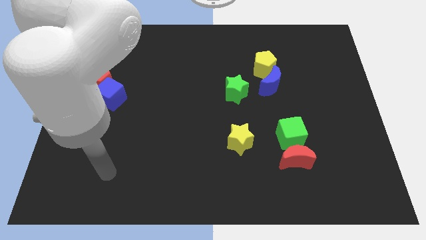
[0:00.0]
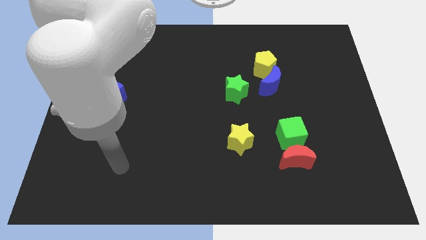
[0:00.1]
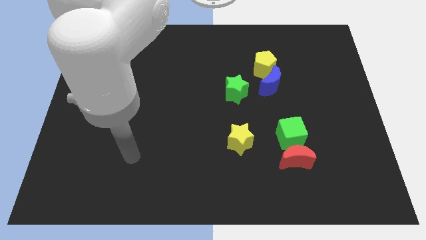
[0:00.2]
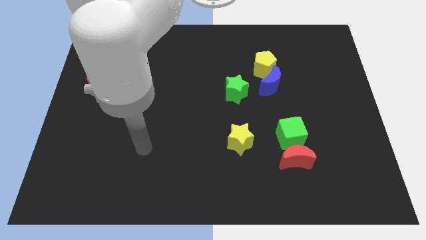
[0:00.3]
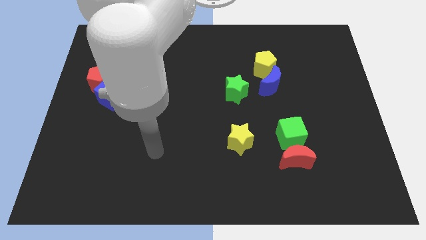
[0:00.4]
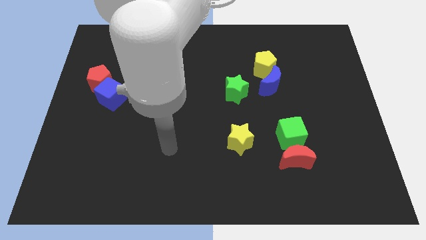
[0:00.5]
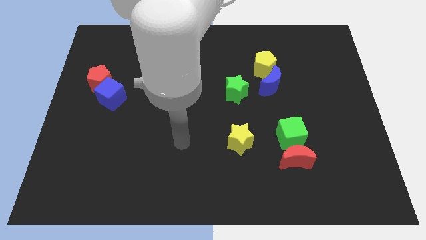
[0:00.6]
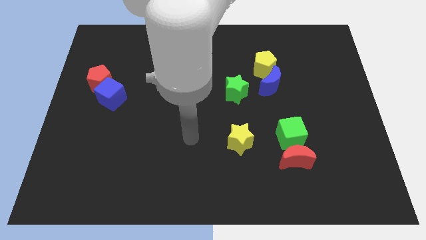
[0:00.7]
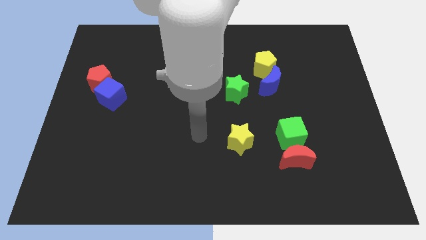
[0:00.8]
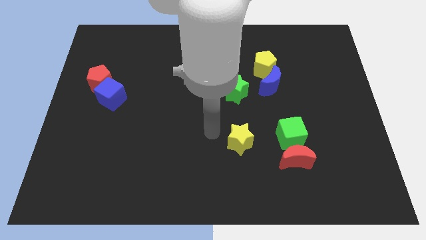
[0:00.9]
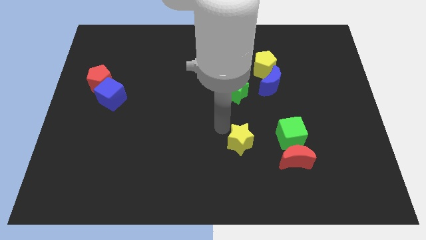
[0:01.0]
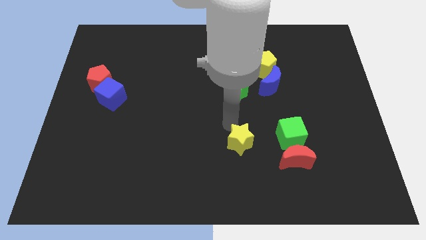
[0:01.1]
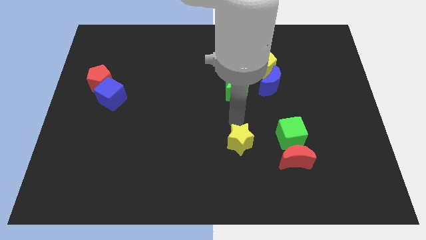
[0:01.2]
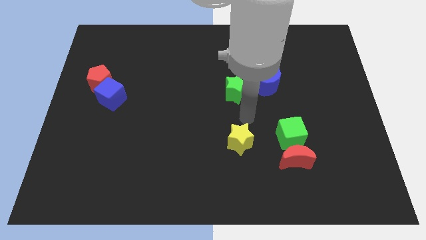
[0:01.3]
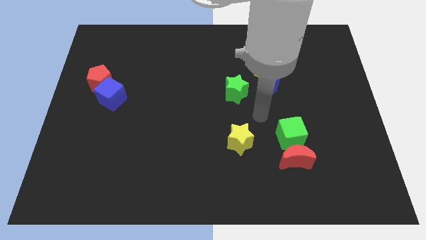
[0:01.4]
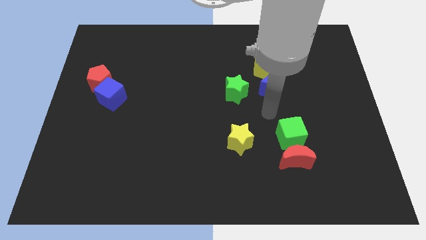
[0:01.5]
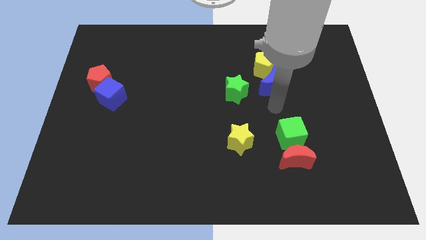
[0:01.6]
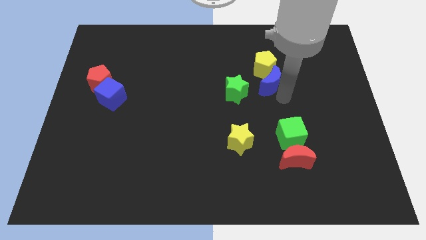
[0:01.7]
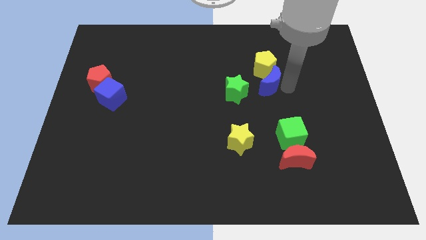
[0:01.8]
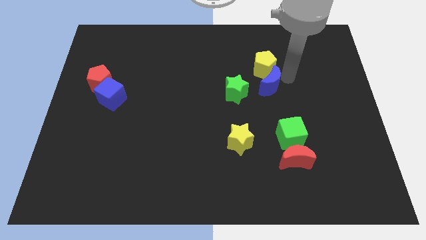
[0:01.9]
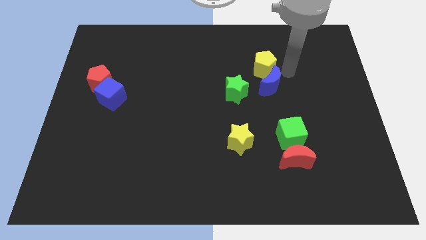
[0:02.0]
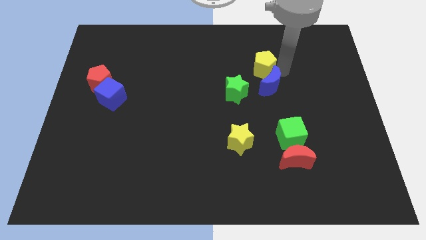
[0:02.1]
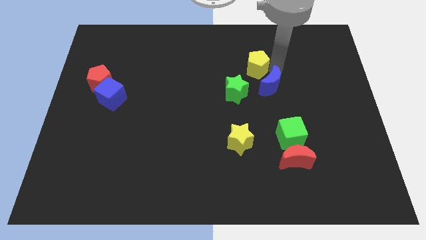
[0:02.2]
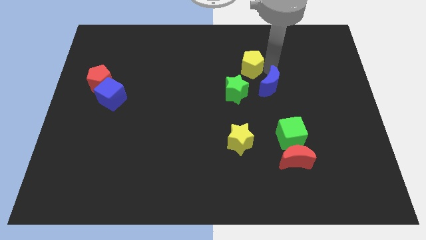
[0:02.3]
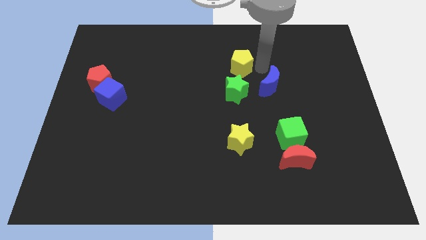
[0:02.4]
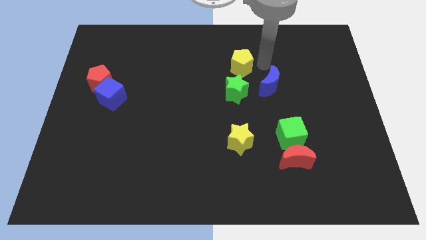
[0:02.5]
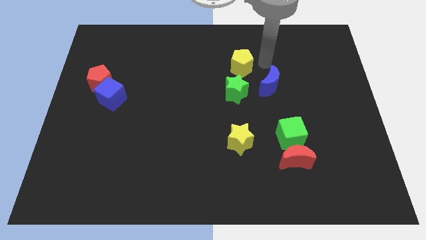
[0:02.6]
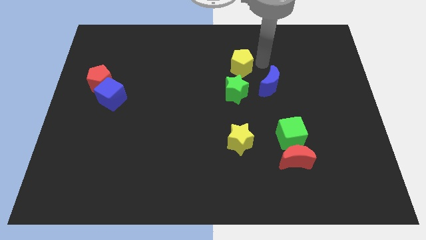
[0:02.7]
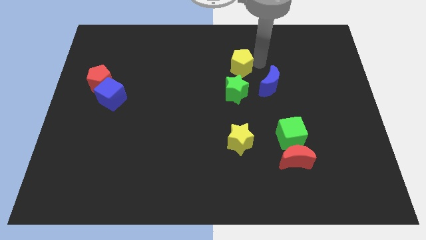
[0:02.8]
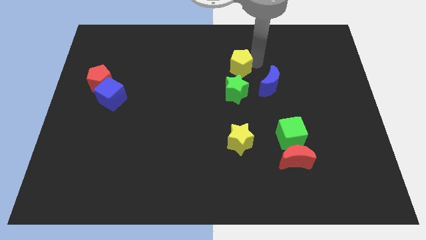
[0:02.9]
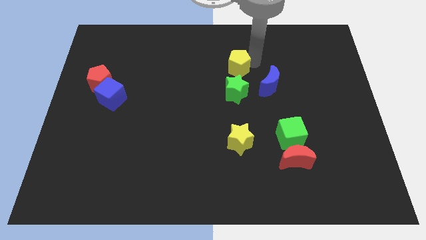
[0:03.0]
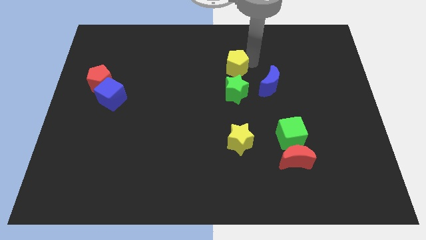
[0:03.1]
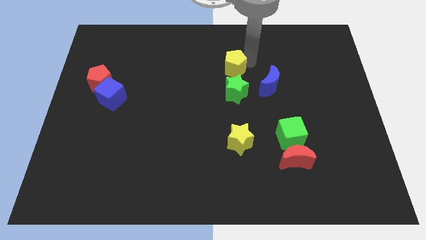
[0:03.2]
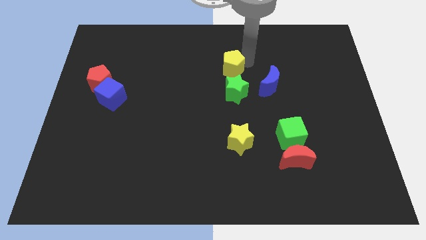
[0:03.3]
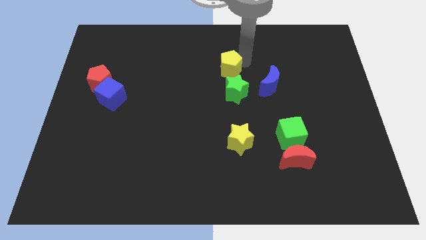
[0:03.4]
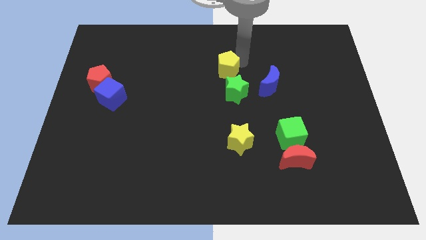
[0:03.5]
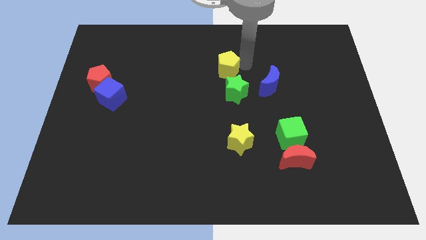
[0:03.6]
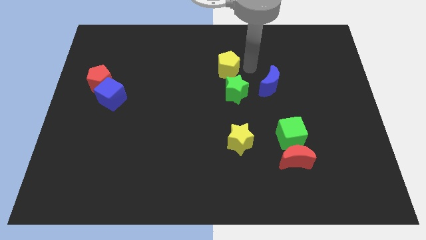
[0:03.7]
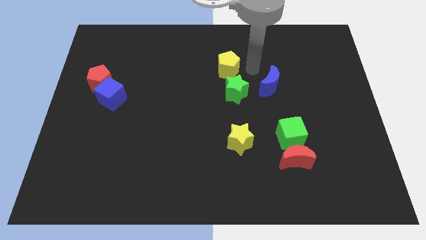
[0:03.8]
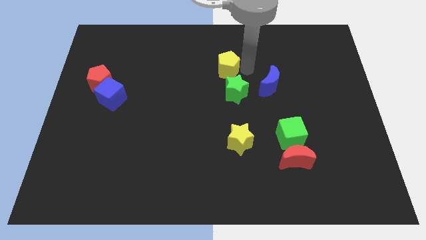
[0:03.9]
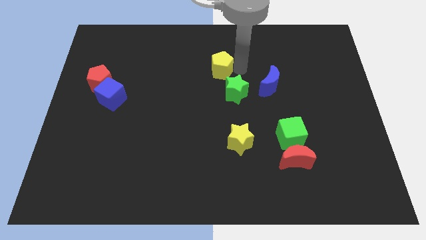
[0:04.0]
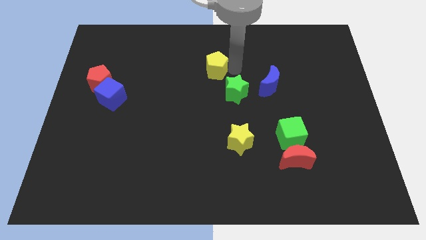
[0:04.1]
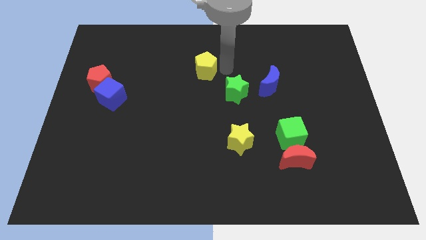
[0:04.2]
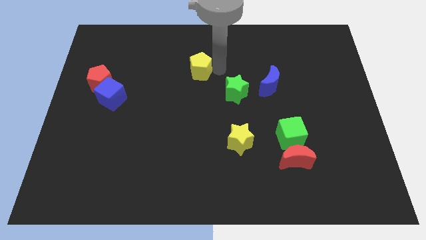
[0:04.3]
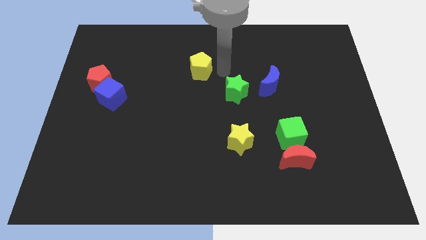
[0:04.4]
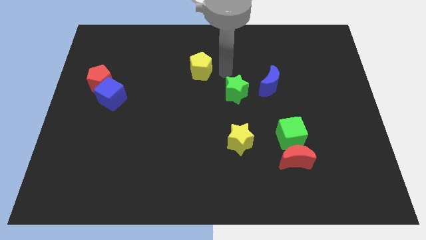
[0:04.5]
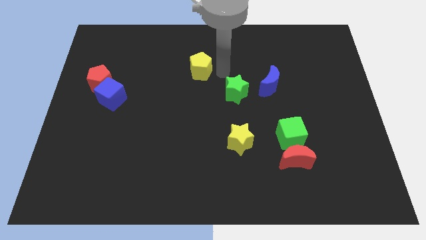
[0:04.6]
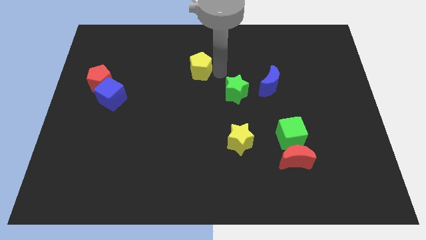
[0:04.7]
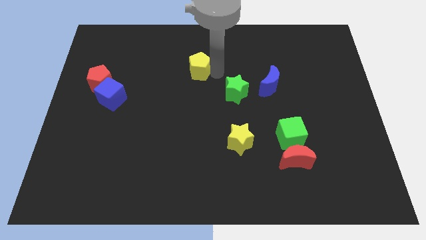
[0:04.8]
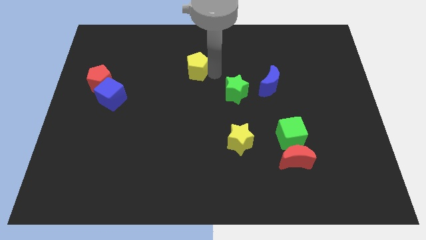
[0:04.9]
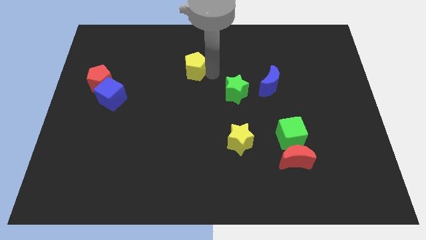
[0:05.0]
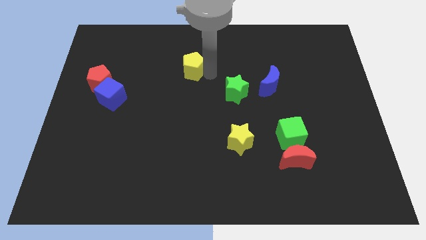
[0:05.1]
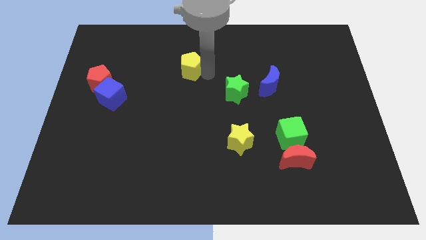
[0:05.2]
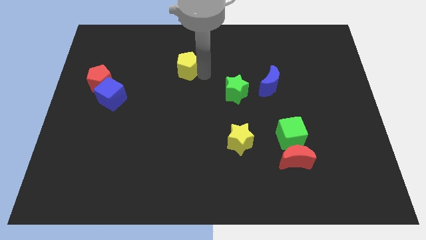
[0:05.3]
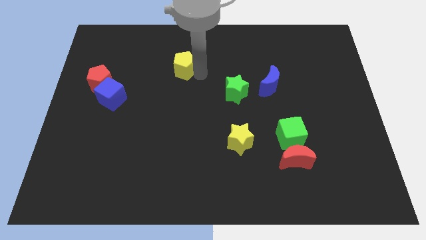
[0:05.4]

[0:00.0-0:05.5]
move the yellow pentagon to the left

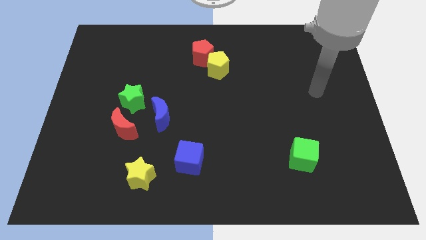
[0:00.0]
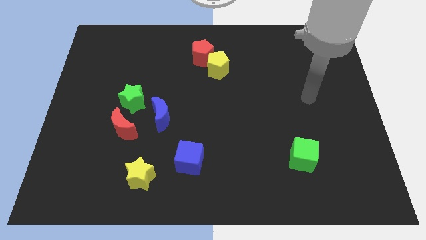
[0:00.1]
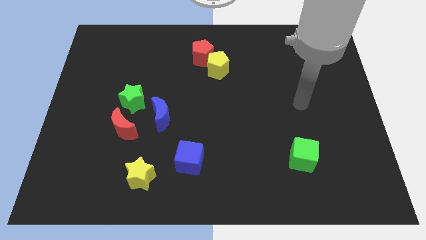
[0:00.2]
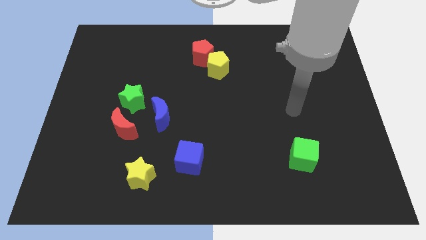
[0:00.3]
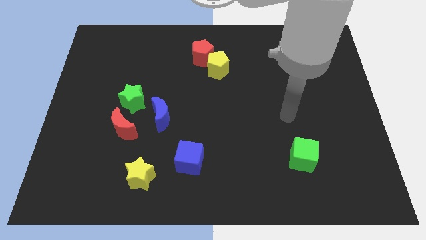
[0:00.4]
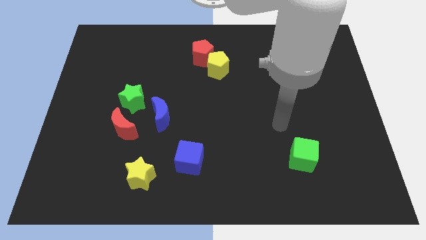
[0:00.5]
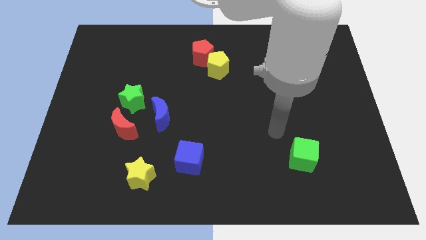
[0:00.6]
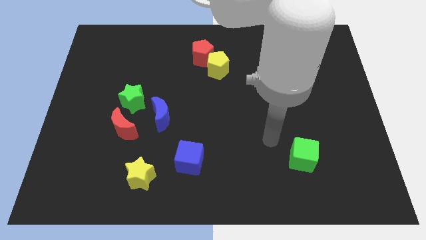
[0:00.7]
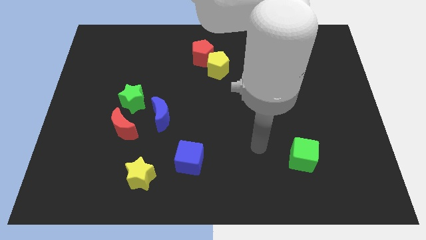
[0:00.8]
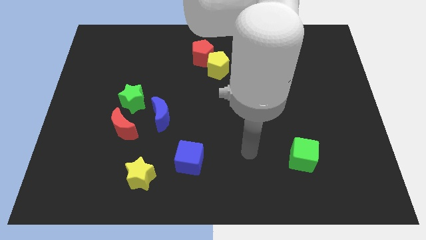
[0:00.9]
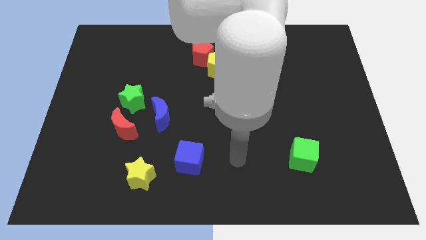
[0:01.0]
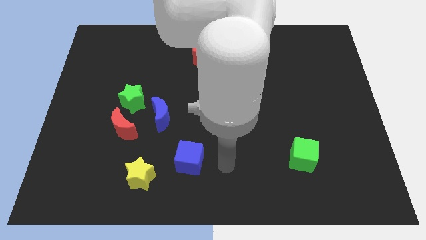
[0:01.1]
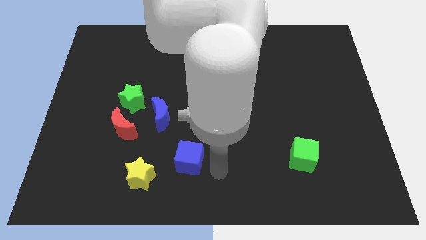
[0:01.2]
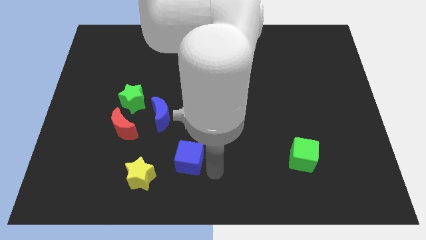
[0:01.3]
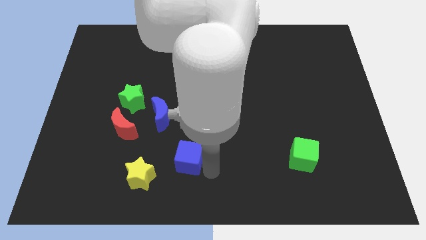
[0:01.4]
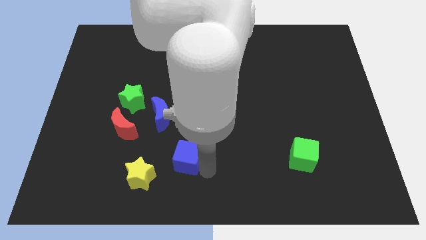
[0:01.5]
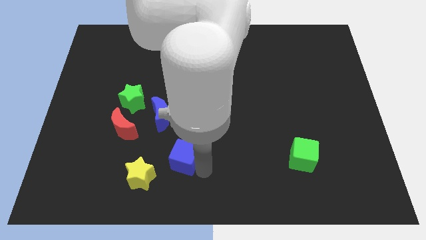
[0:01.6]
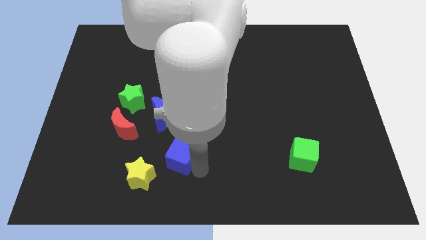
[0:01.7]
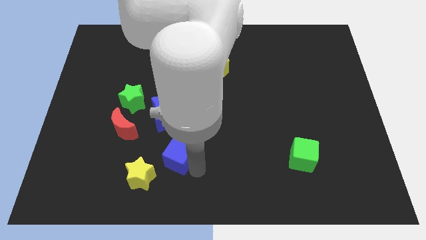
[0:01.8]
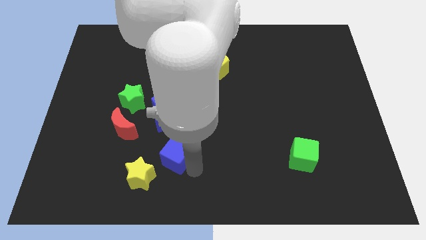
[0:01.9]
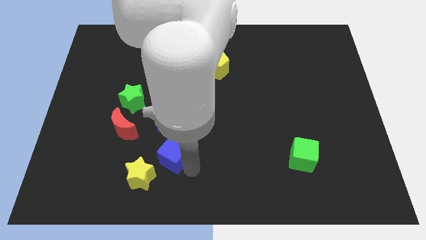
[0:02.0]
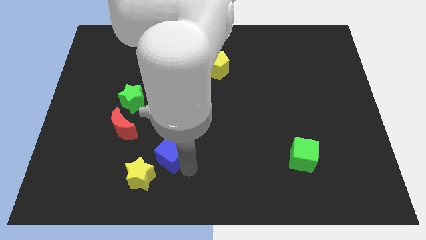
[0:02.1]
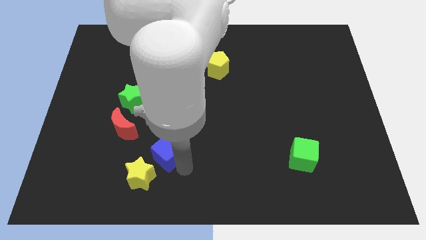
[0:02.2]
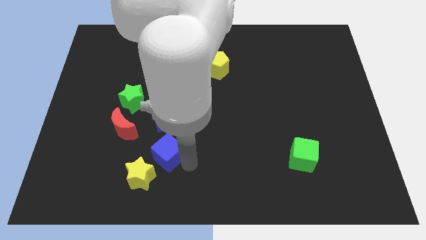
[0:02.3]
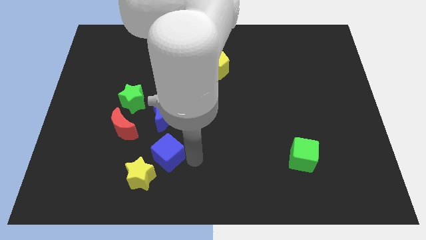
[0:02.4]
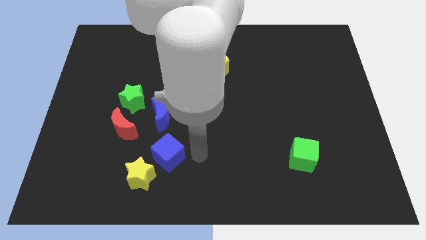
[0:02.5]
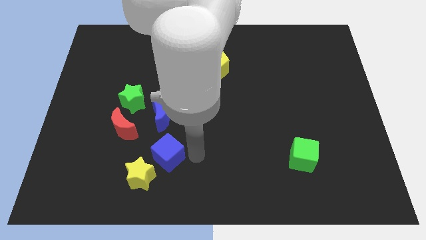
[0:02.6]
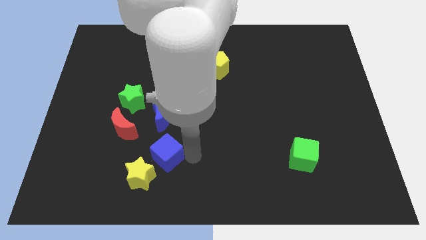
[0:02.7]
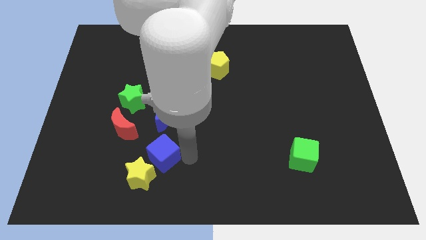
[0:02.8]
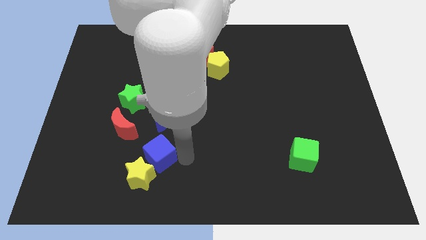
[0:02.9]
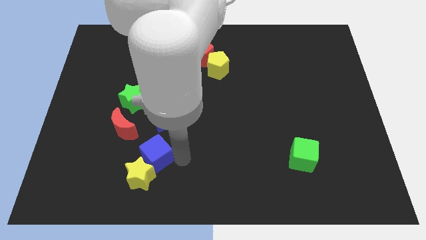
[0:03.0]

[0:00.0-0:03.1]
push the blue cube somewhat to the left
